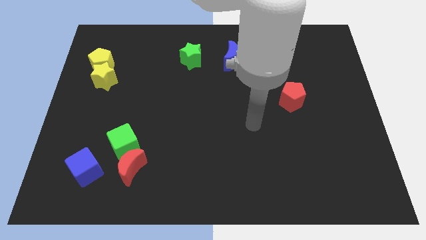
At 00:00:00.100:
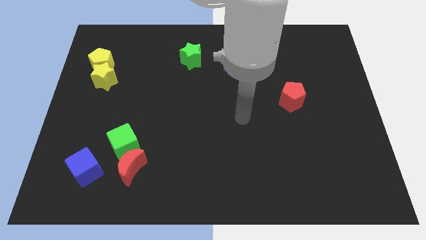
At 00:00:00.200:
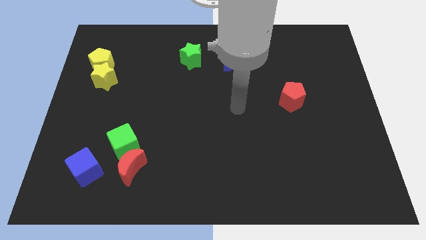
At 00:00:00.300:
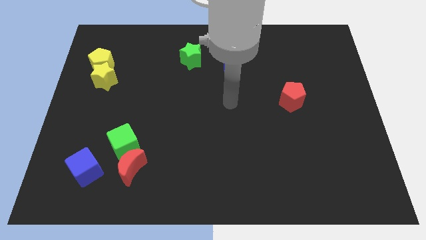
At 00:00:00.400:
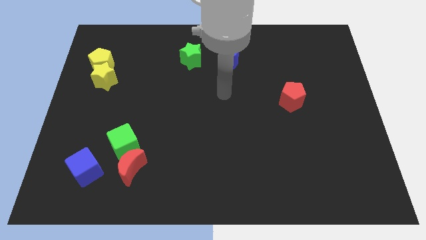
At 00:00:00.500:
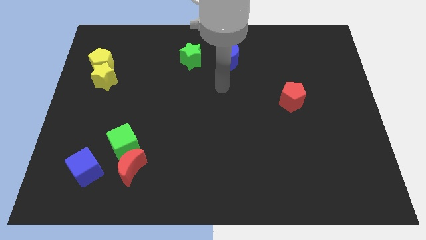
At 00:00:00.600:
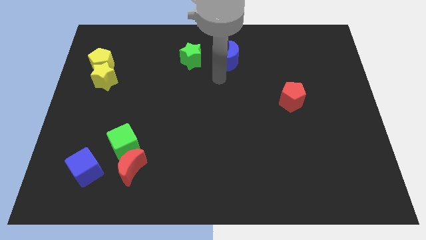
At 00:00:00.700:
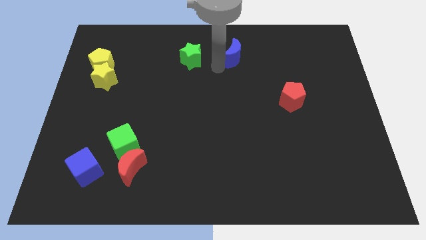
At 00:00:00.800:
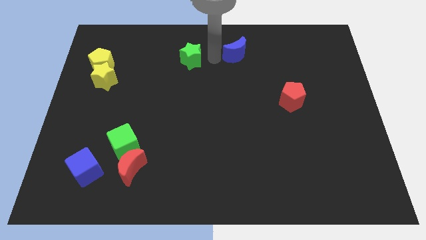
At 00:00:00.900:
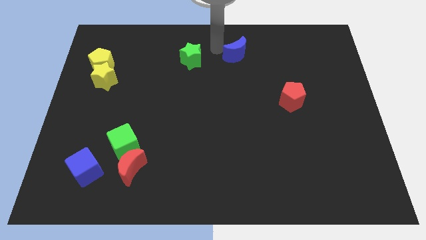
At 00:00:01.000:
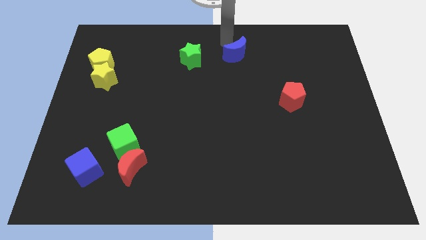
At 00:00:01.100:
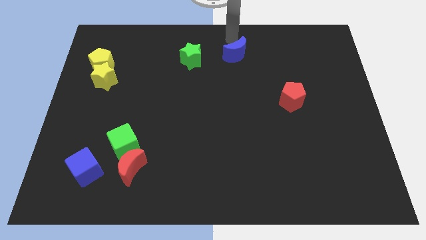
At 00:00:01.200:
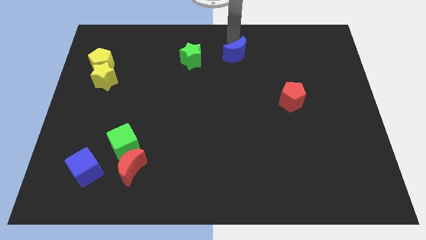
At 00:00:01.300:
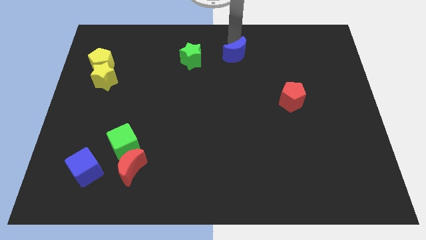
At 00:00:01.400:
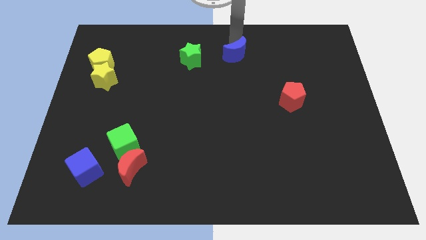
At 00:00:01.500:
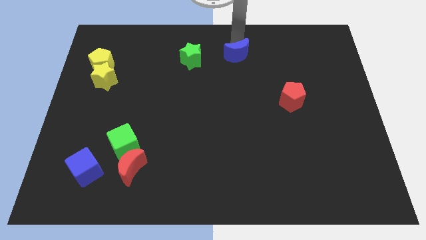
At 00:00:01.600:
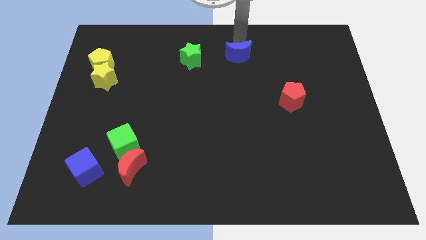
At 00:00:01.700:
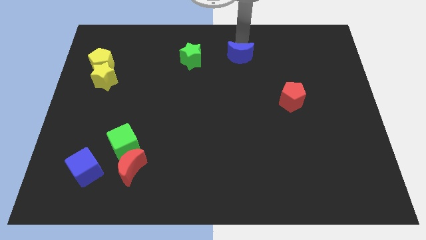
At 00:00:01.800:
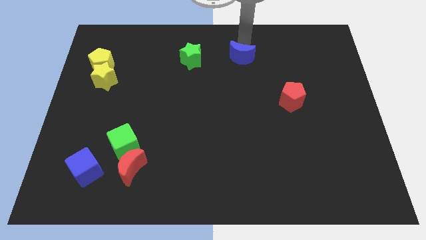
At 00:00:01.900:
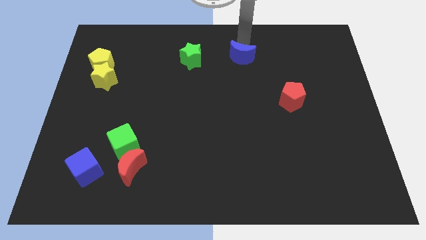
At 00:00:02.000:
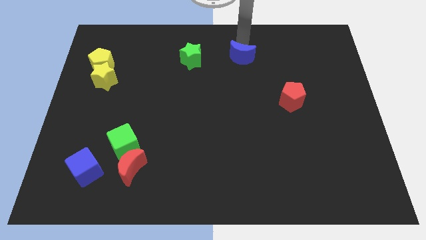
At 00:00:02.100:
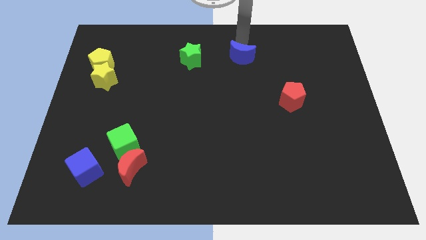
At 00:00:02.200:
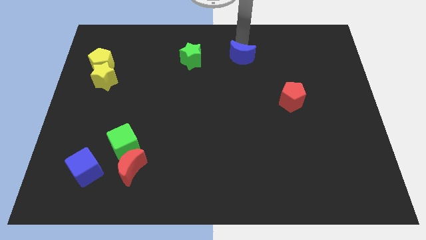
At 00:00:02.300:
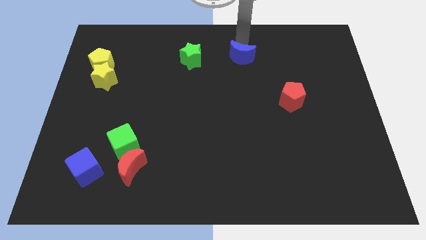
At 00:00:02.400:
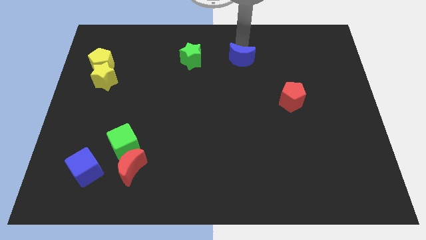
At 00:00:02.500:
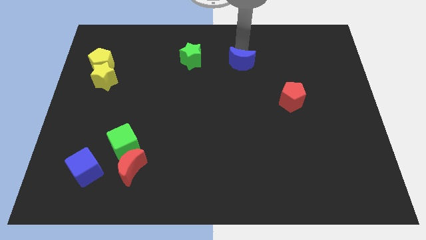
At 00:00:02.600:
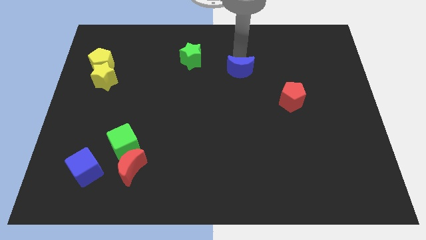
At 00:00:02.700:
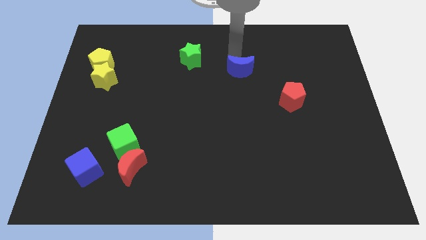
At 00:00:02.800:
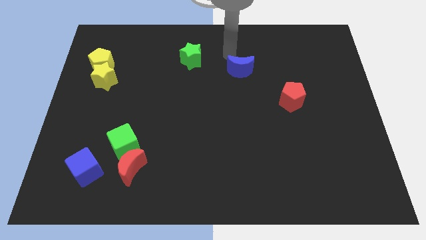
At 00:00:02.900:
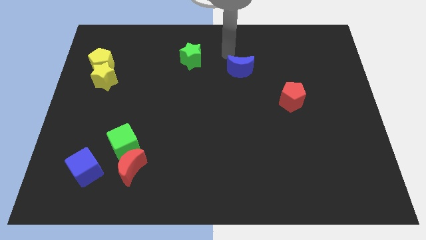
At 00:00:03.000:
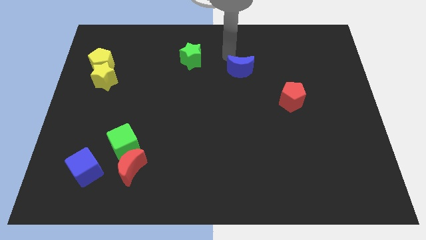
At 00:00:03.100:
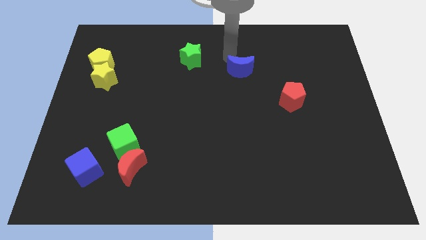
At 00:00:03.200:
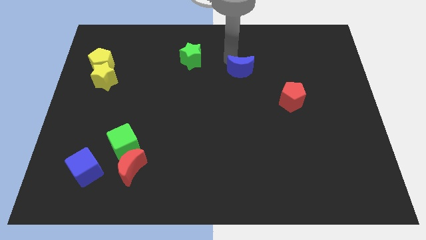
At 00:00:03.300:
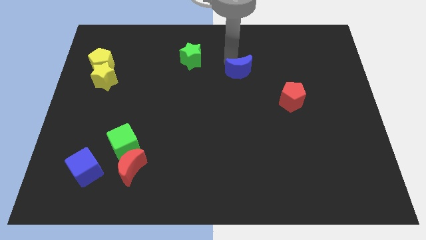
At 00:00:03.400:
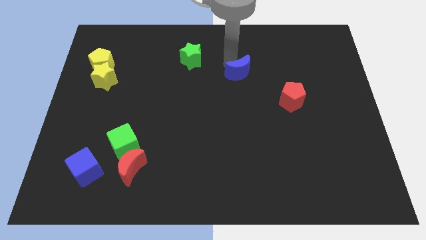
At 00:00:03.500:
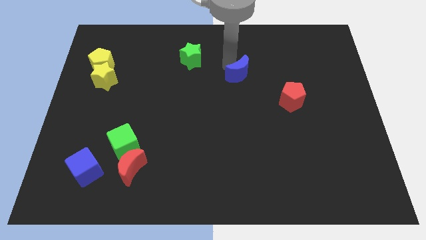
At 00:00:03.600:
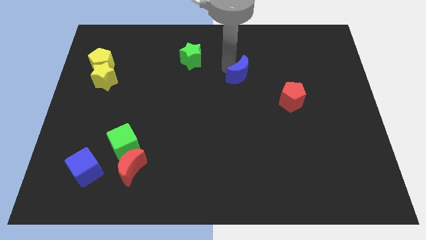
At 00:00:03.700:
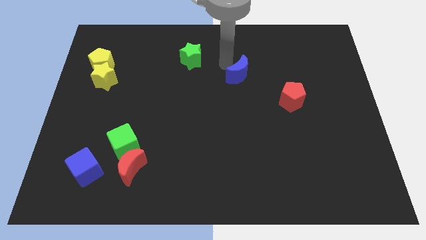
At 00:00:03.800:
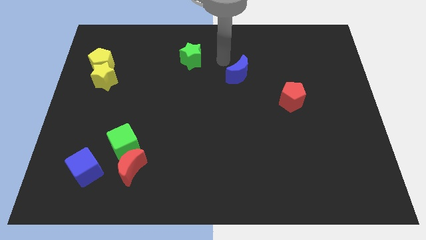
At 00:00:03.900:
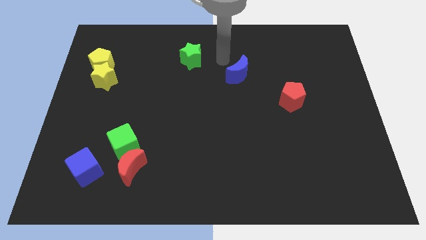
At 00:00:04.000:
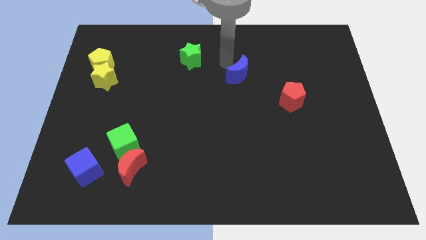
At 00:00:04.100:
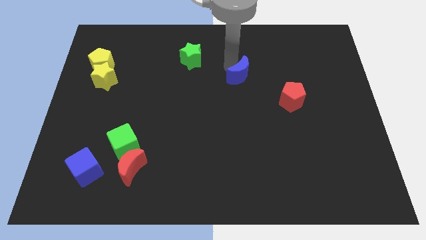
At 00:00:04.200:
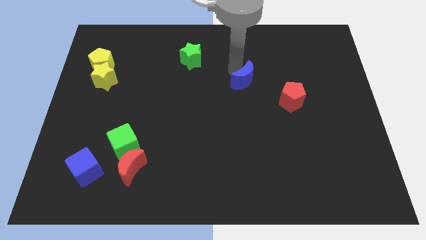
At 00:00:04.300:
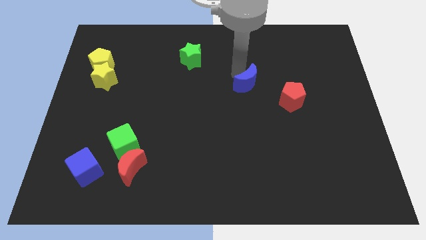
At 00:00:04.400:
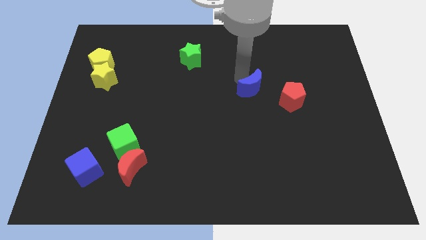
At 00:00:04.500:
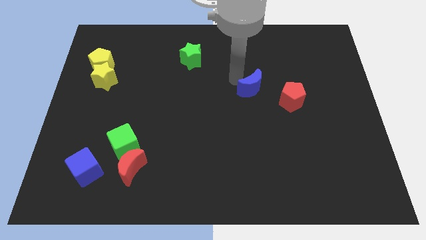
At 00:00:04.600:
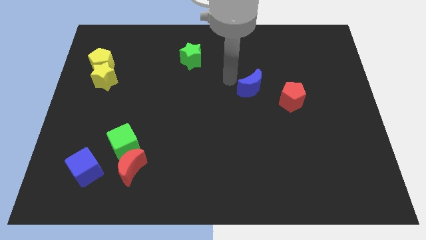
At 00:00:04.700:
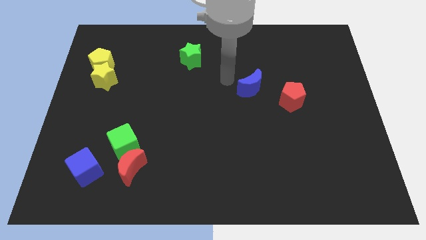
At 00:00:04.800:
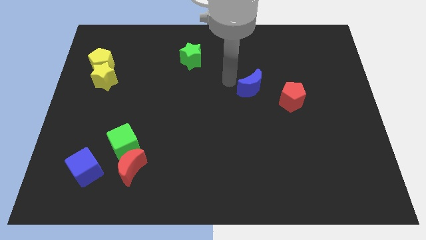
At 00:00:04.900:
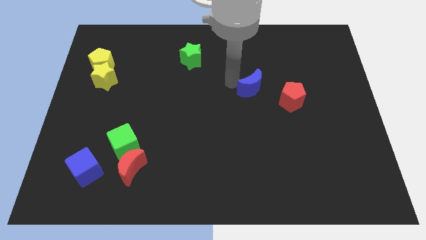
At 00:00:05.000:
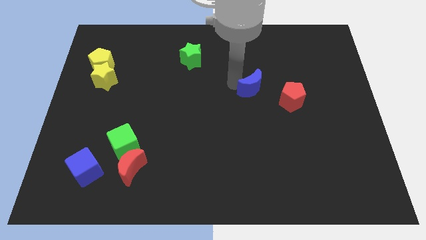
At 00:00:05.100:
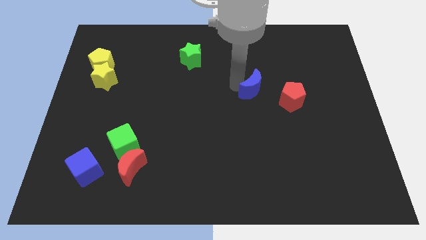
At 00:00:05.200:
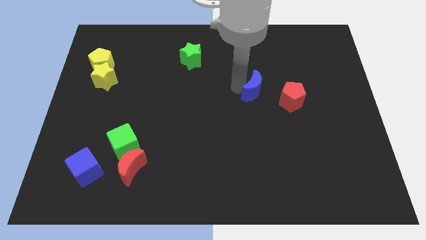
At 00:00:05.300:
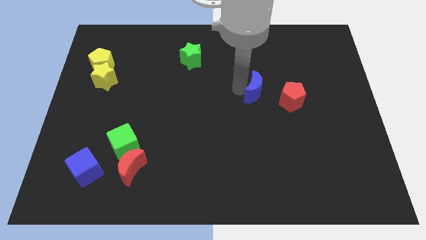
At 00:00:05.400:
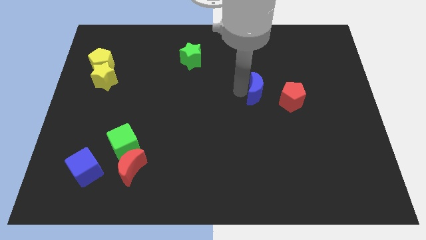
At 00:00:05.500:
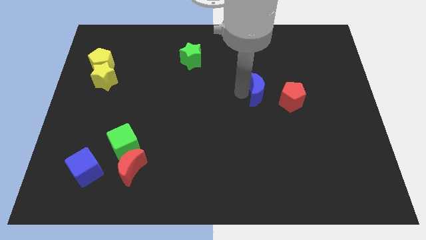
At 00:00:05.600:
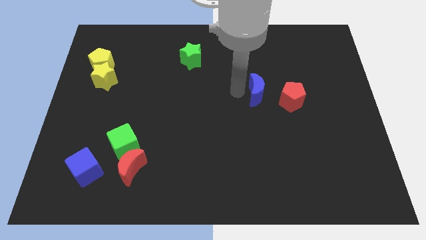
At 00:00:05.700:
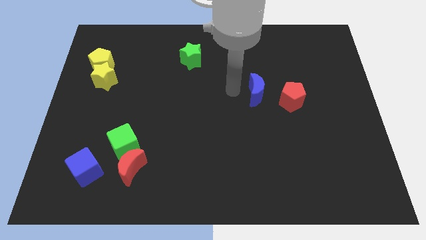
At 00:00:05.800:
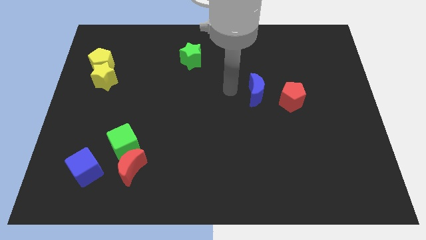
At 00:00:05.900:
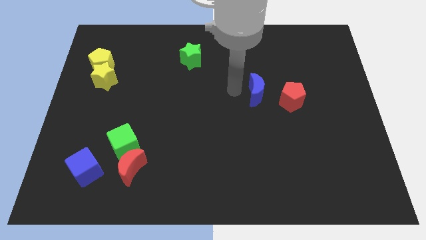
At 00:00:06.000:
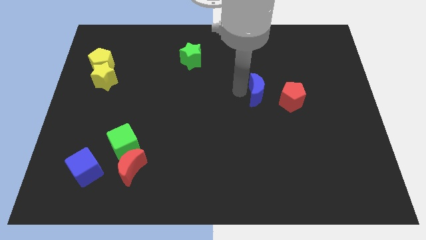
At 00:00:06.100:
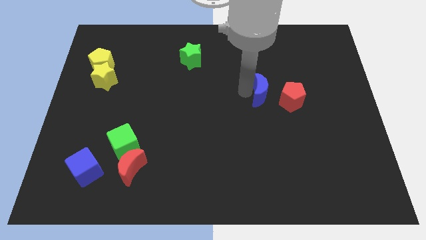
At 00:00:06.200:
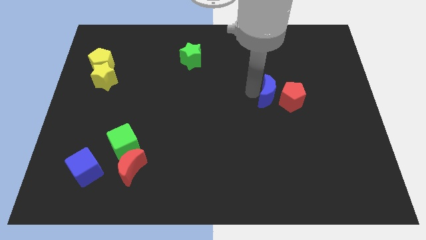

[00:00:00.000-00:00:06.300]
move the blue moon towards the red pentagon
